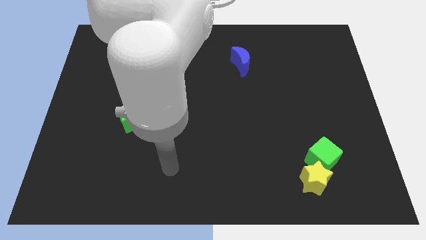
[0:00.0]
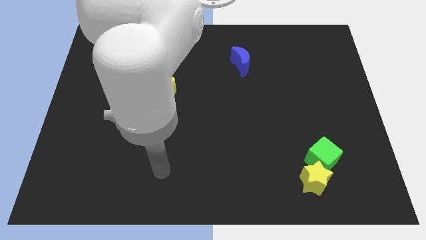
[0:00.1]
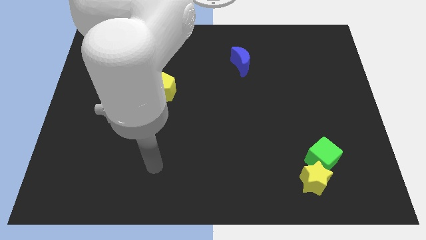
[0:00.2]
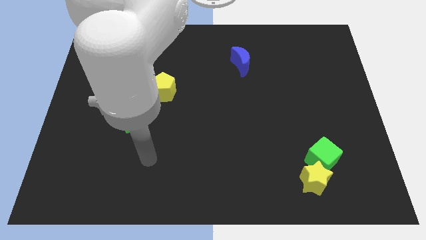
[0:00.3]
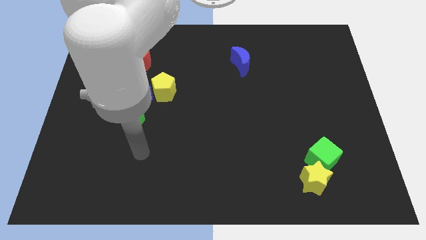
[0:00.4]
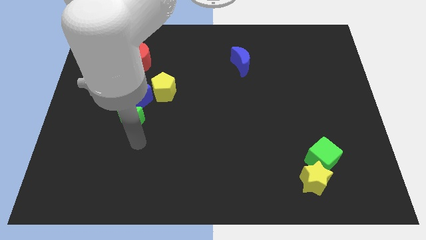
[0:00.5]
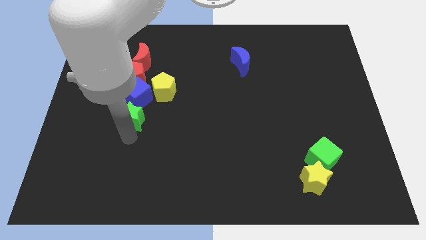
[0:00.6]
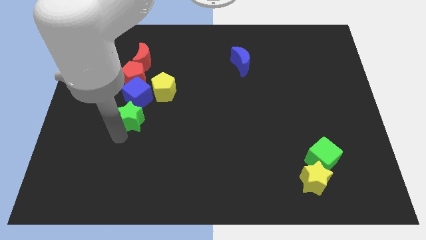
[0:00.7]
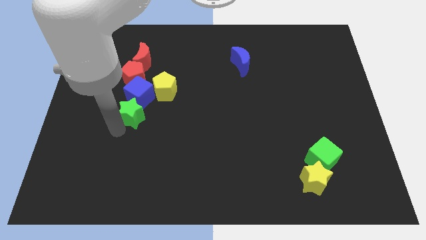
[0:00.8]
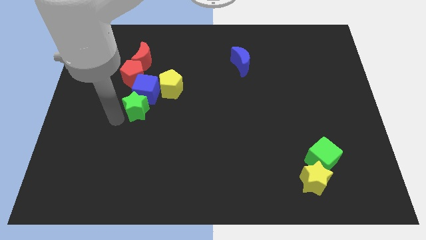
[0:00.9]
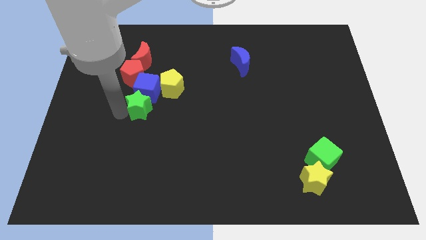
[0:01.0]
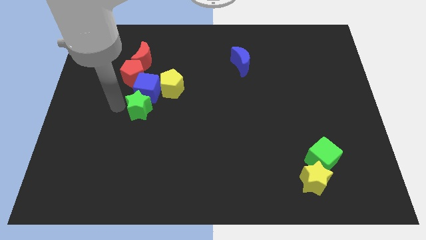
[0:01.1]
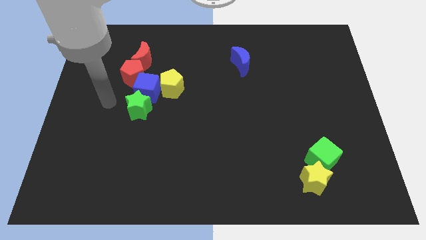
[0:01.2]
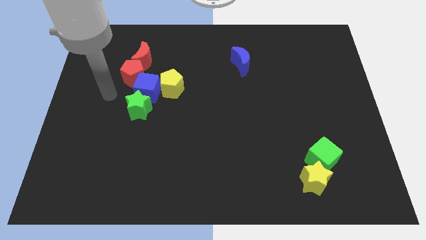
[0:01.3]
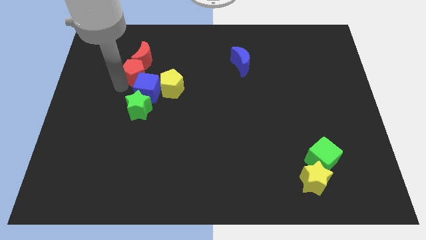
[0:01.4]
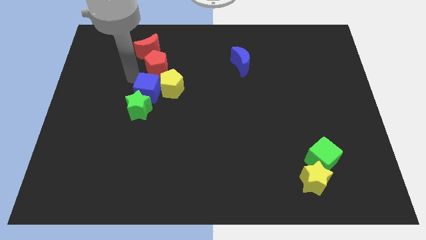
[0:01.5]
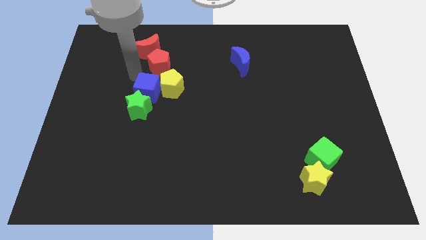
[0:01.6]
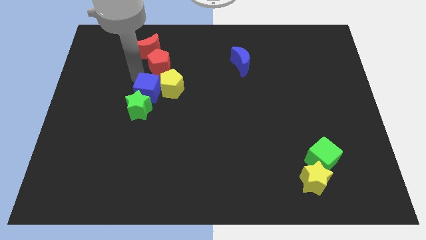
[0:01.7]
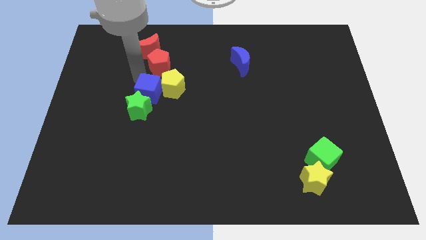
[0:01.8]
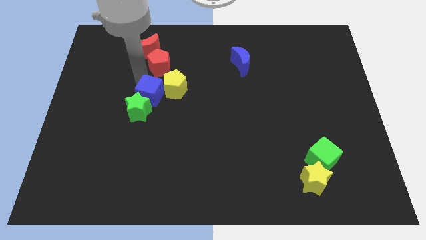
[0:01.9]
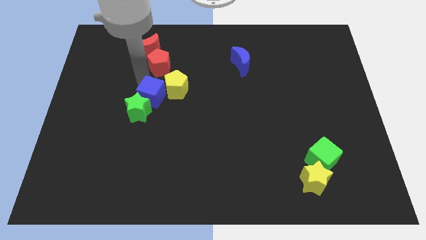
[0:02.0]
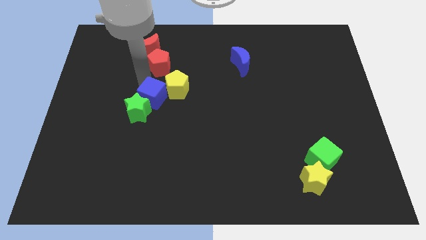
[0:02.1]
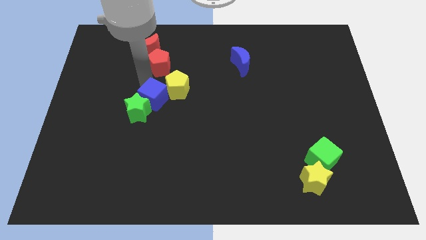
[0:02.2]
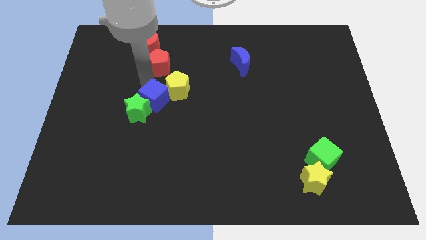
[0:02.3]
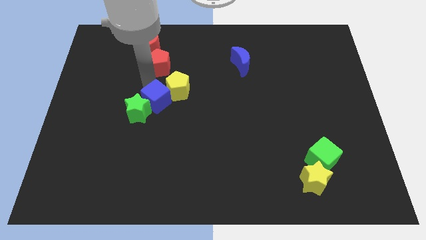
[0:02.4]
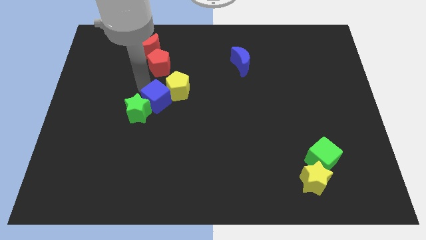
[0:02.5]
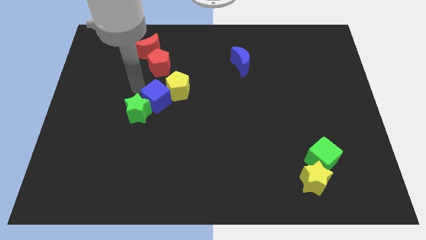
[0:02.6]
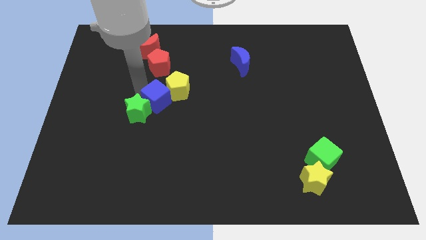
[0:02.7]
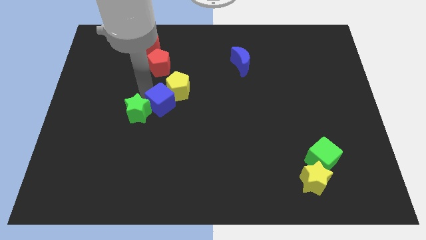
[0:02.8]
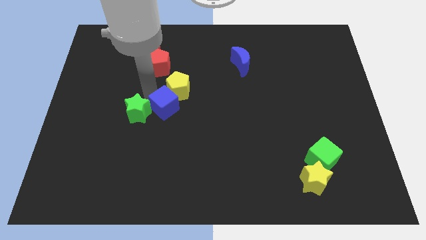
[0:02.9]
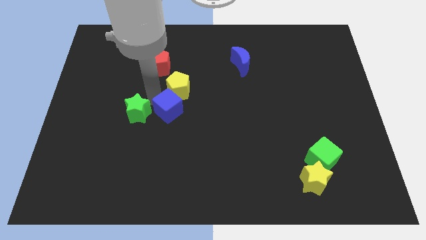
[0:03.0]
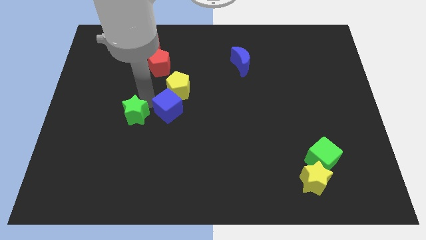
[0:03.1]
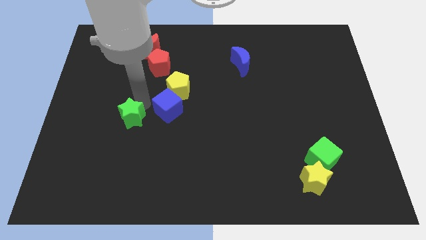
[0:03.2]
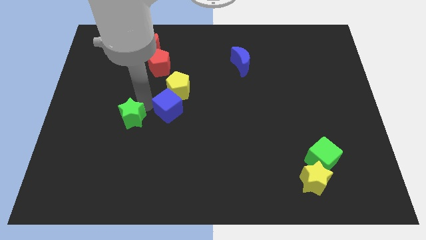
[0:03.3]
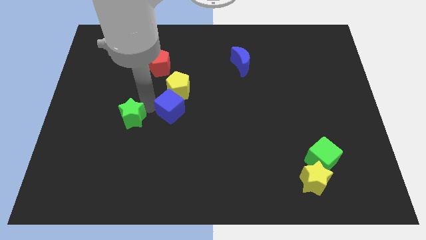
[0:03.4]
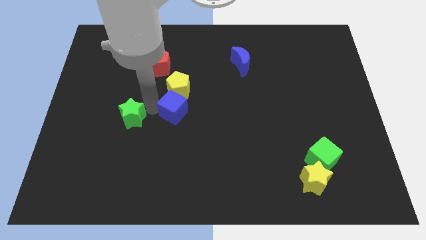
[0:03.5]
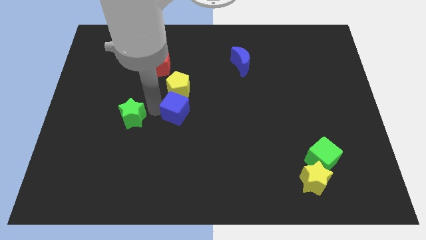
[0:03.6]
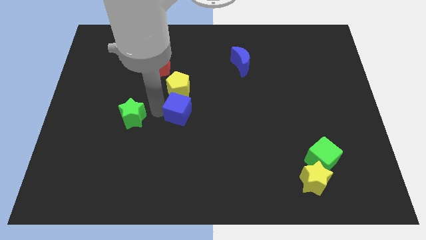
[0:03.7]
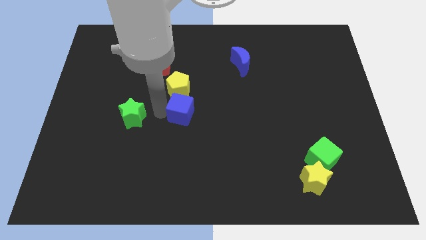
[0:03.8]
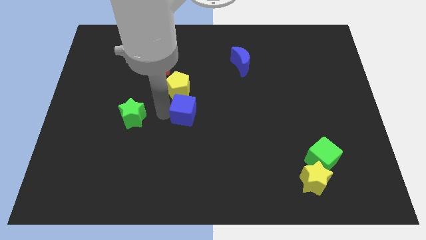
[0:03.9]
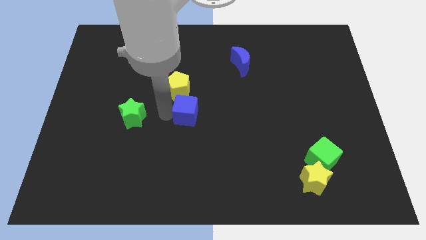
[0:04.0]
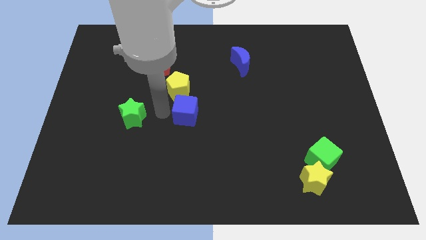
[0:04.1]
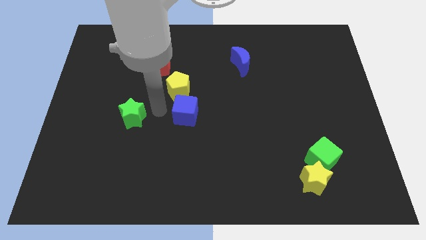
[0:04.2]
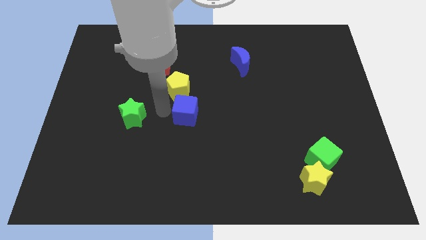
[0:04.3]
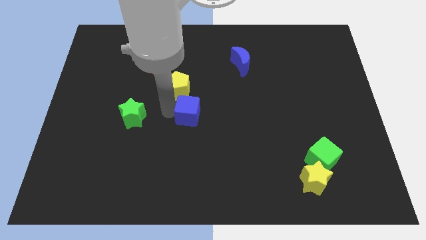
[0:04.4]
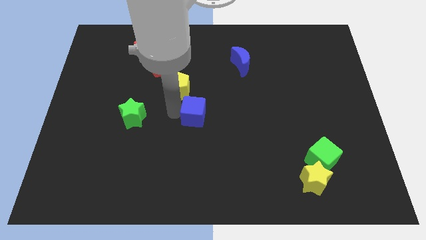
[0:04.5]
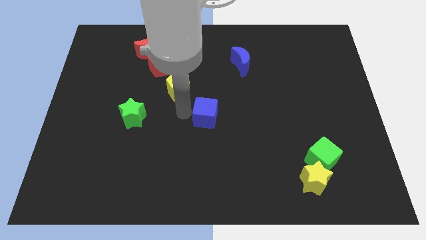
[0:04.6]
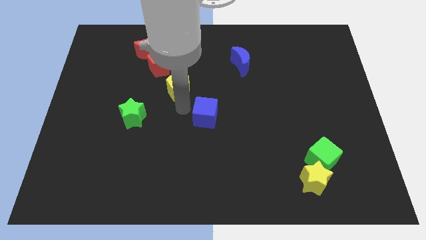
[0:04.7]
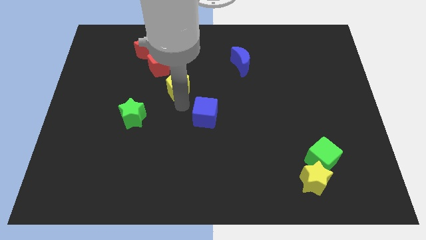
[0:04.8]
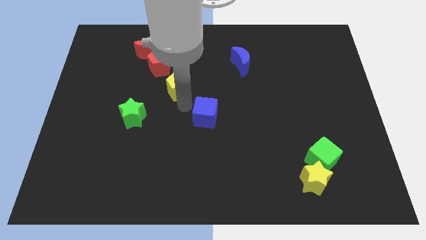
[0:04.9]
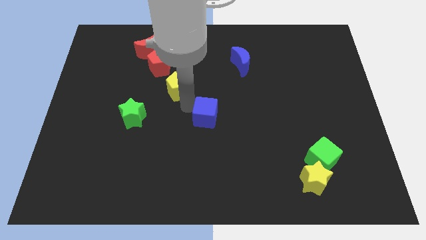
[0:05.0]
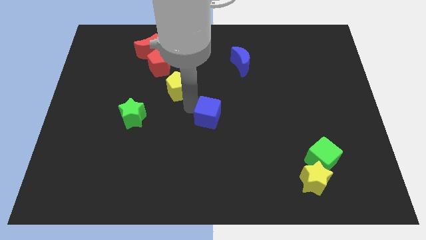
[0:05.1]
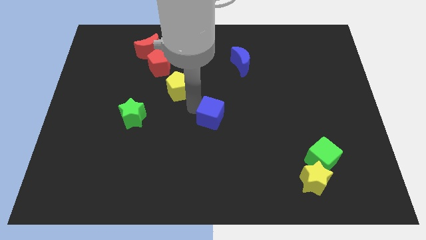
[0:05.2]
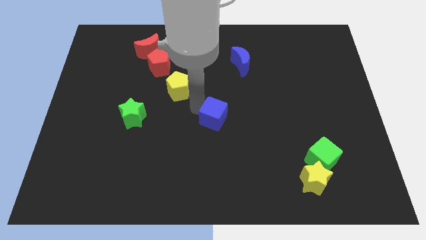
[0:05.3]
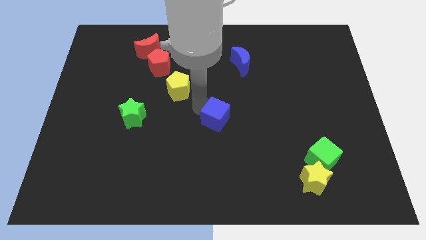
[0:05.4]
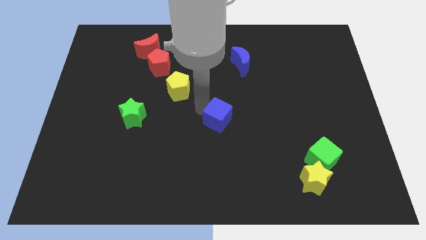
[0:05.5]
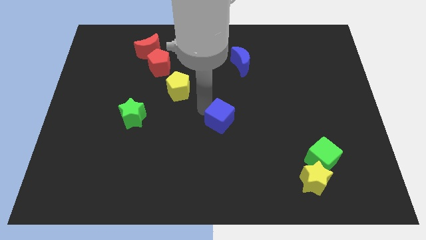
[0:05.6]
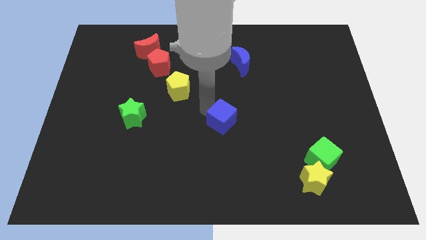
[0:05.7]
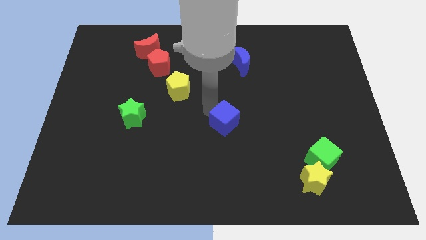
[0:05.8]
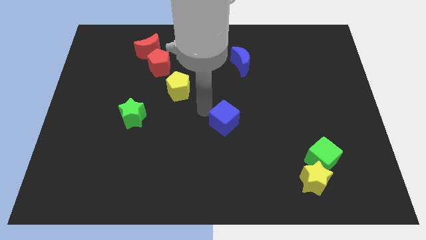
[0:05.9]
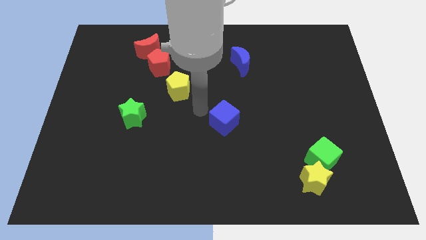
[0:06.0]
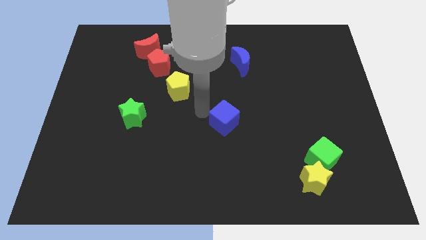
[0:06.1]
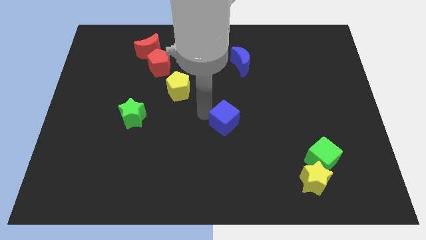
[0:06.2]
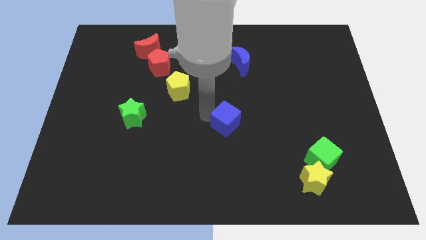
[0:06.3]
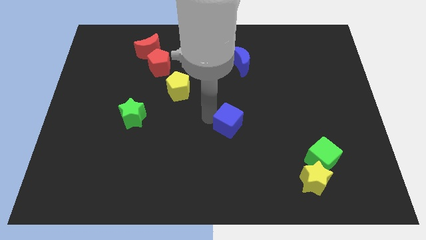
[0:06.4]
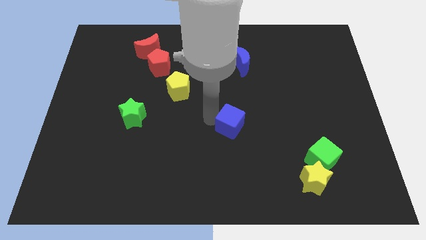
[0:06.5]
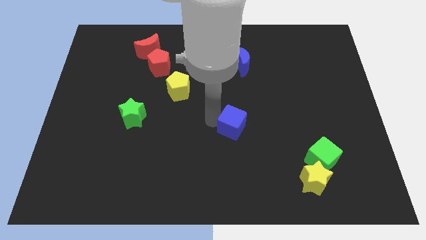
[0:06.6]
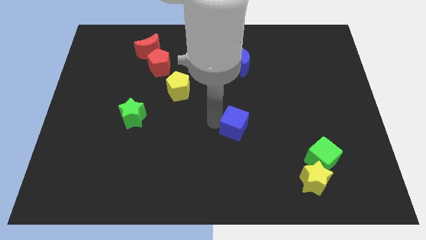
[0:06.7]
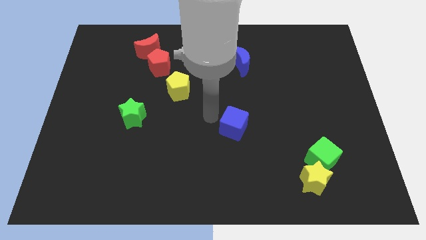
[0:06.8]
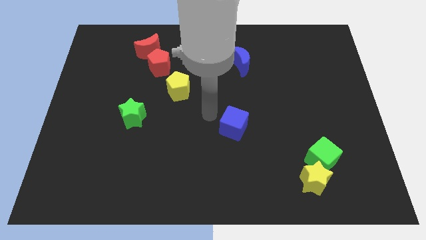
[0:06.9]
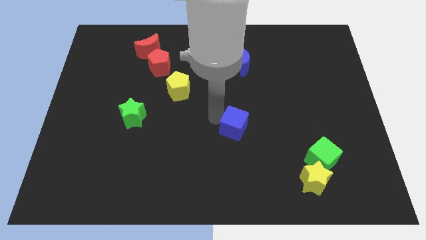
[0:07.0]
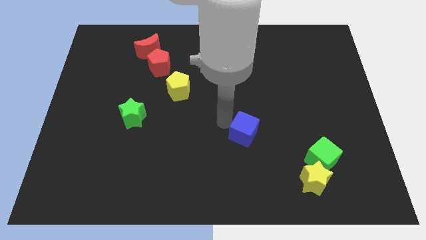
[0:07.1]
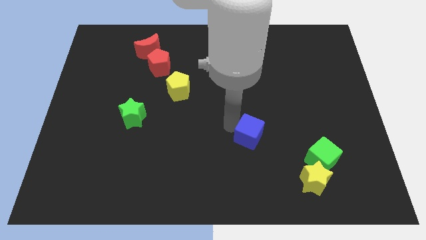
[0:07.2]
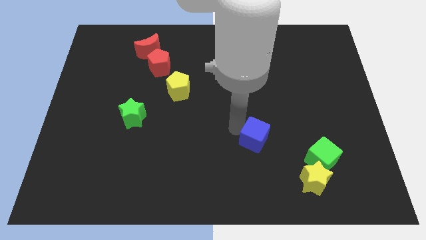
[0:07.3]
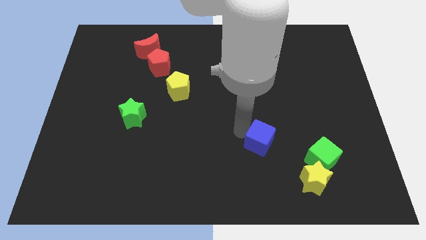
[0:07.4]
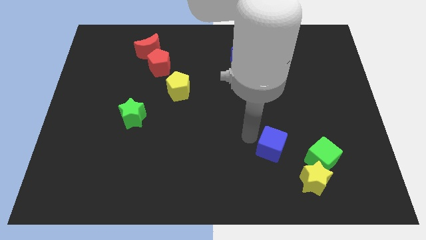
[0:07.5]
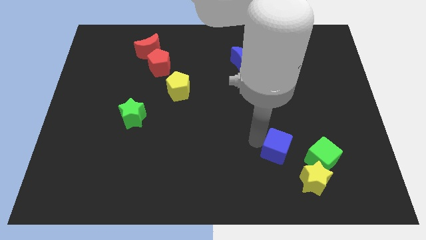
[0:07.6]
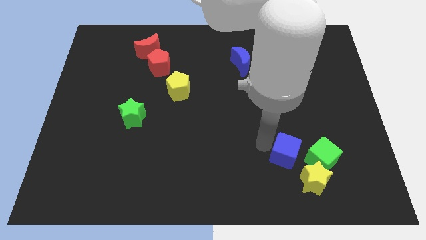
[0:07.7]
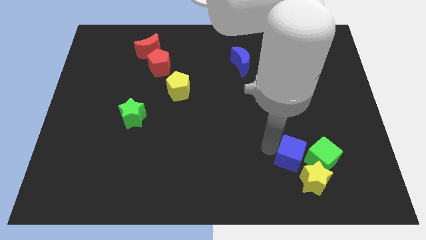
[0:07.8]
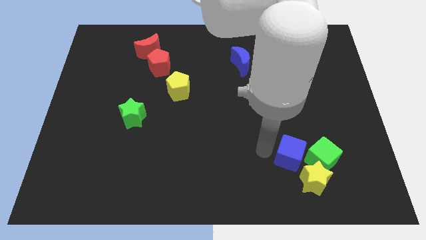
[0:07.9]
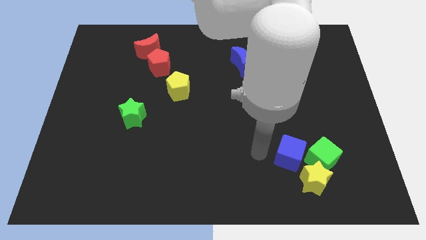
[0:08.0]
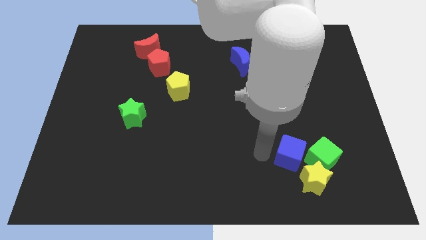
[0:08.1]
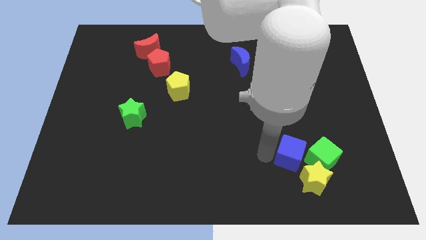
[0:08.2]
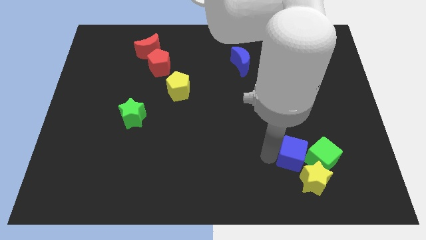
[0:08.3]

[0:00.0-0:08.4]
push the blue cube towards the green cube
